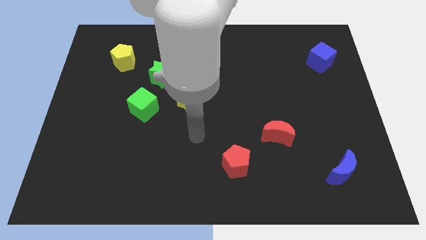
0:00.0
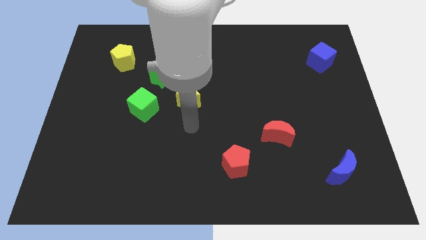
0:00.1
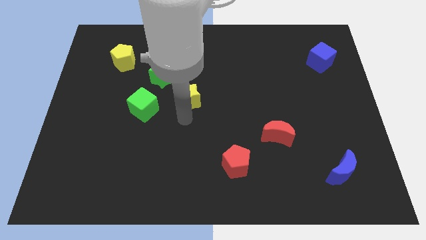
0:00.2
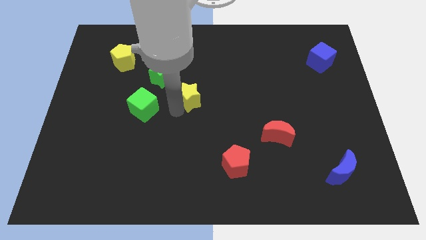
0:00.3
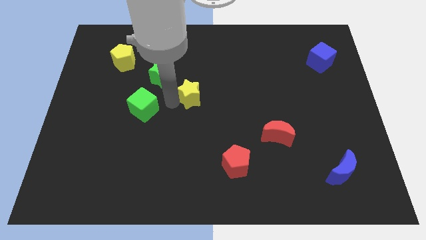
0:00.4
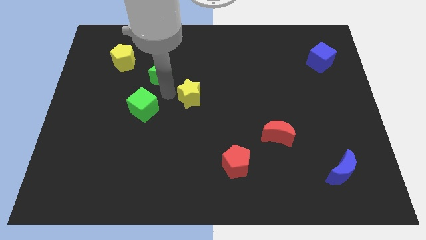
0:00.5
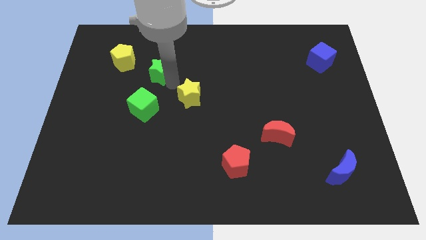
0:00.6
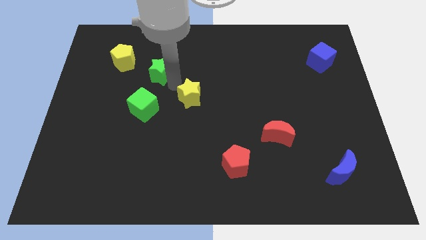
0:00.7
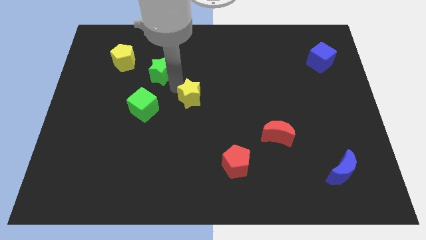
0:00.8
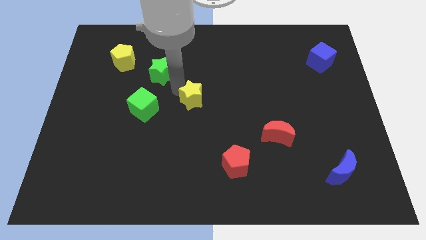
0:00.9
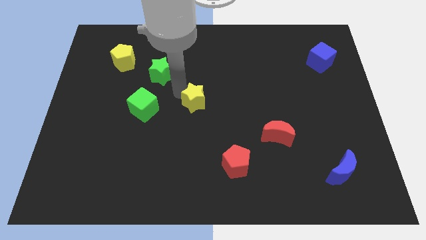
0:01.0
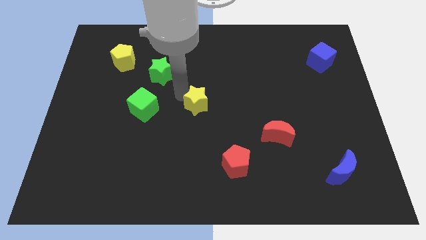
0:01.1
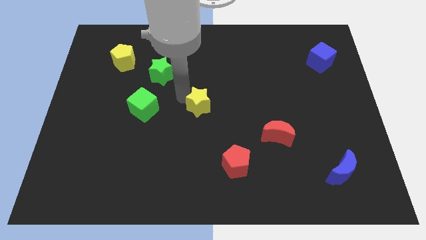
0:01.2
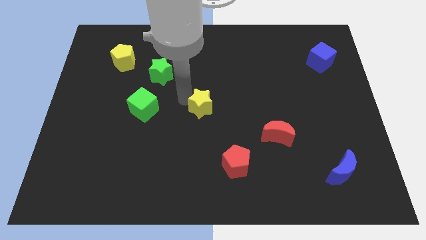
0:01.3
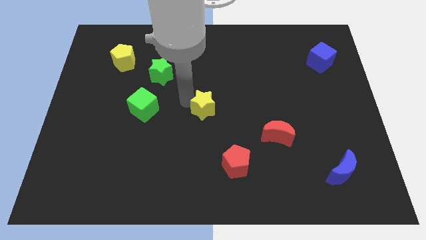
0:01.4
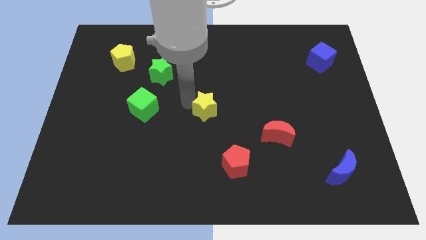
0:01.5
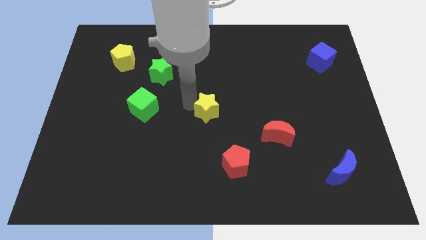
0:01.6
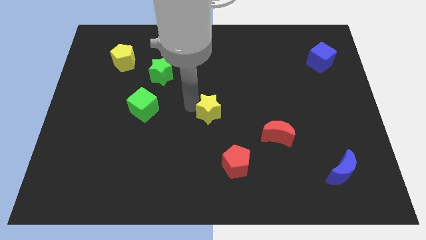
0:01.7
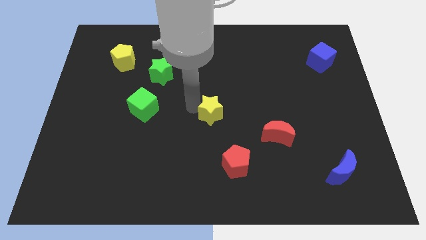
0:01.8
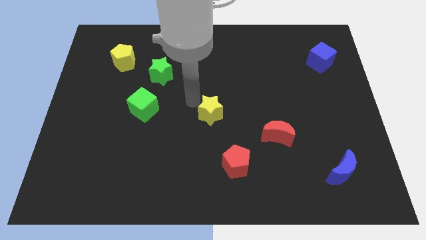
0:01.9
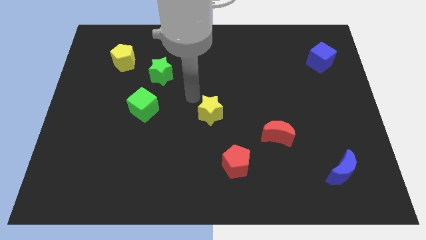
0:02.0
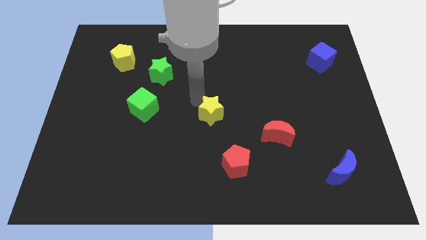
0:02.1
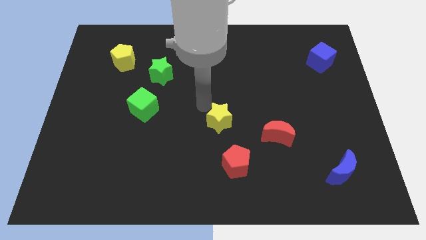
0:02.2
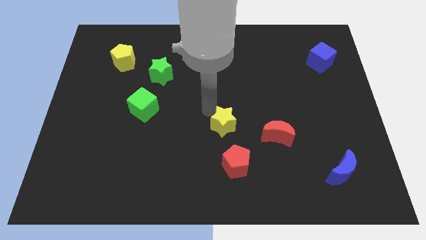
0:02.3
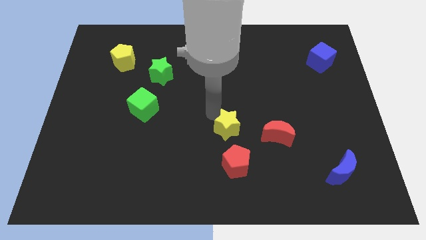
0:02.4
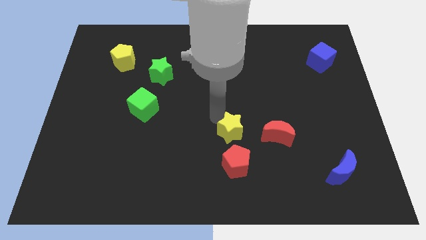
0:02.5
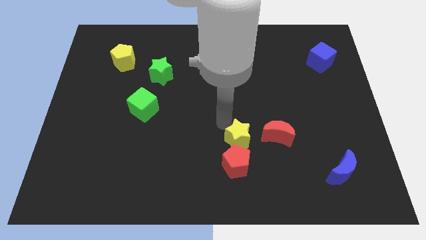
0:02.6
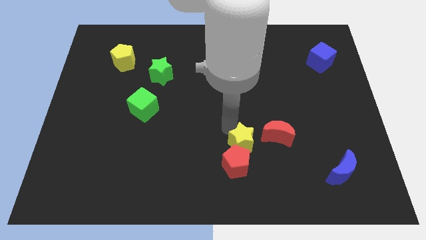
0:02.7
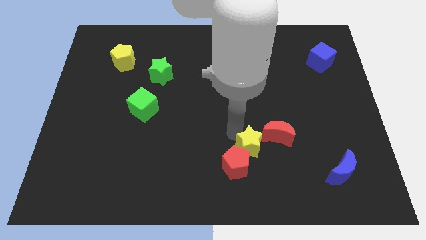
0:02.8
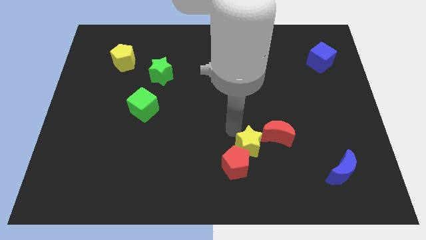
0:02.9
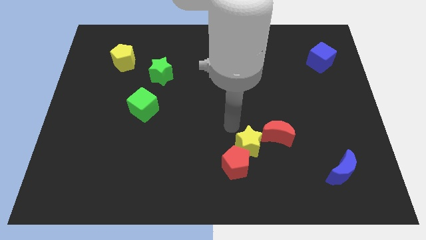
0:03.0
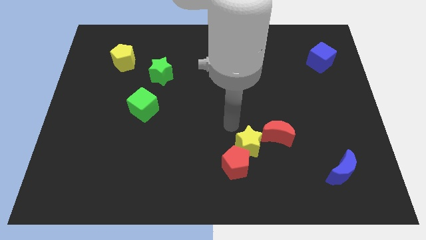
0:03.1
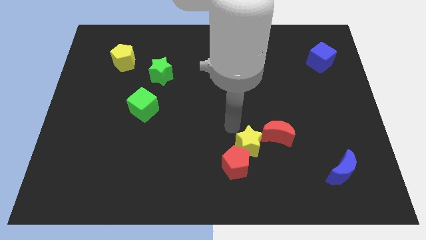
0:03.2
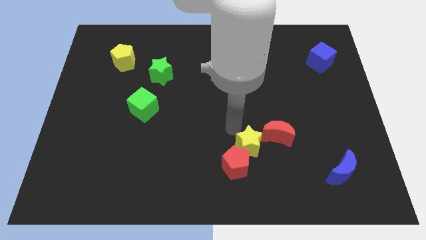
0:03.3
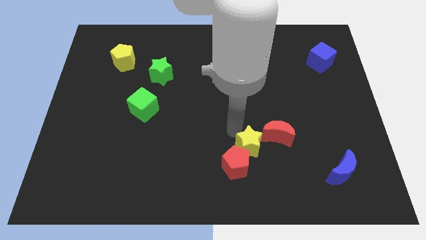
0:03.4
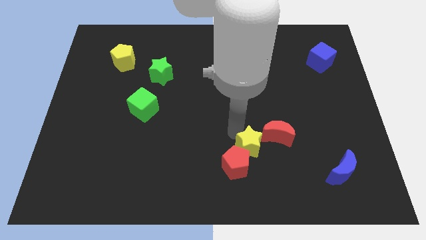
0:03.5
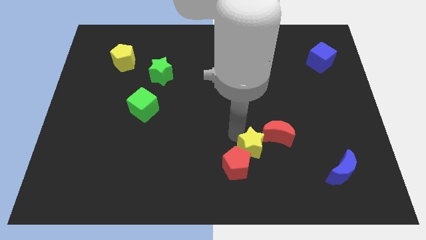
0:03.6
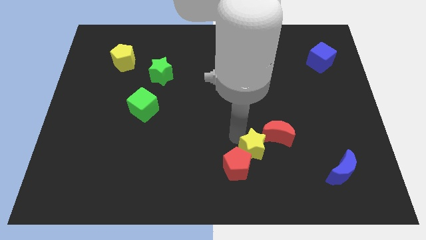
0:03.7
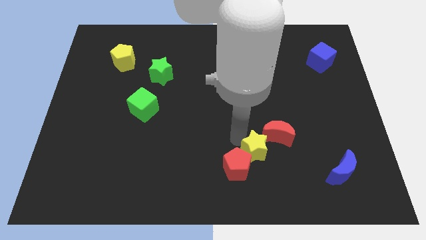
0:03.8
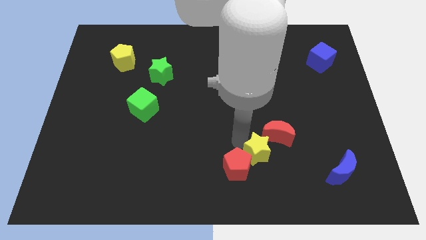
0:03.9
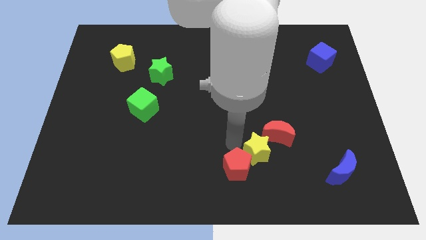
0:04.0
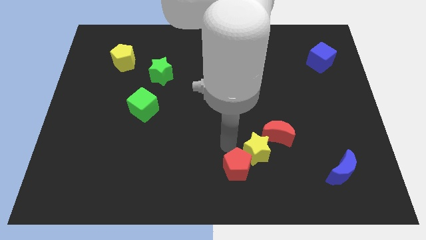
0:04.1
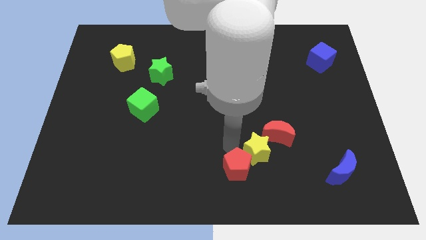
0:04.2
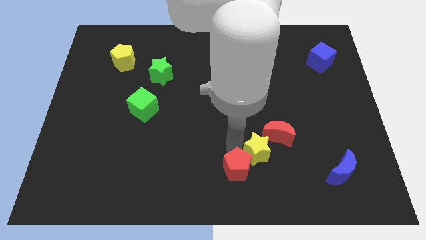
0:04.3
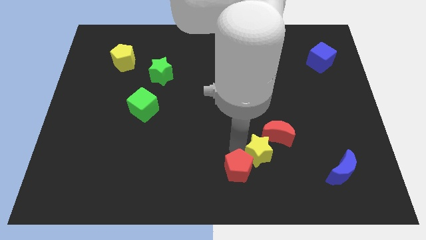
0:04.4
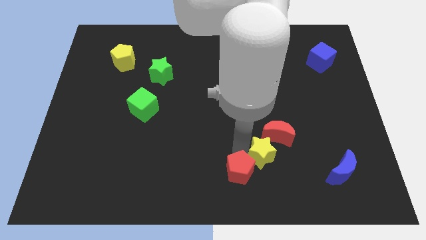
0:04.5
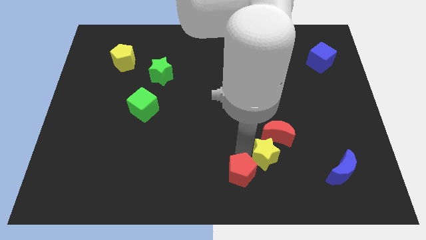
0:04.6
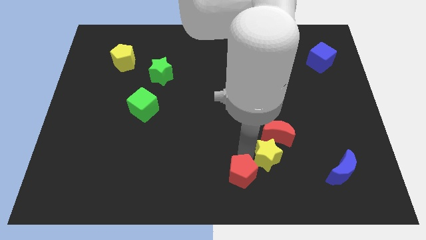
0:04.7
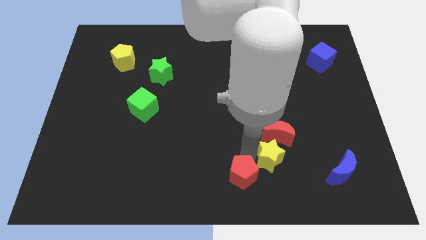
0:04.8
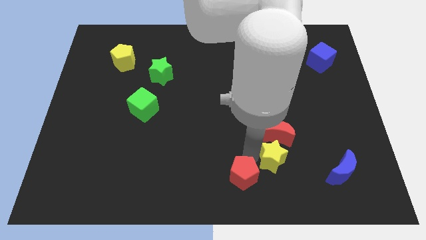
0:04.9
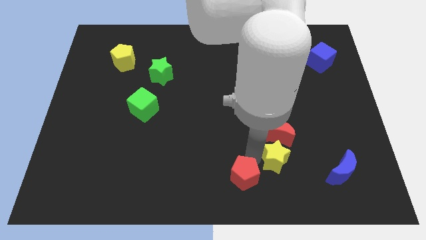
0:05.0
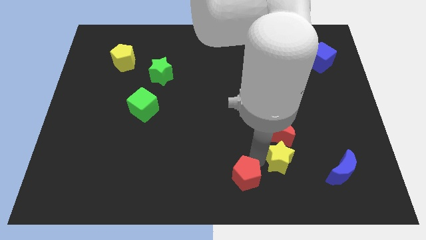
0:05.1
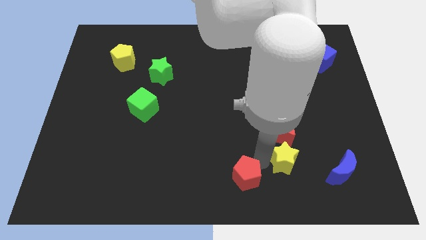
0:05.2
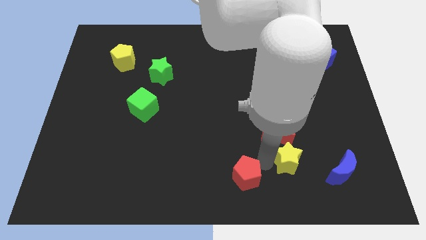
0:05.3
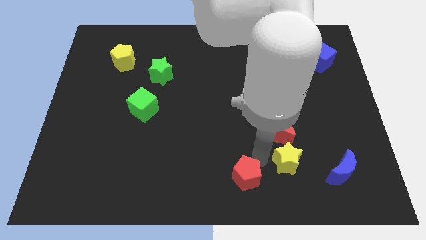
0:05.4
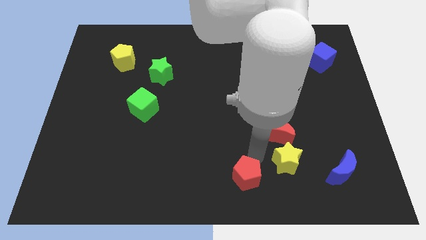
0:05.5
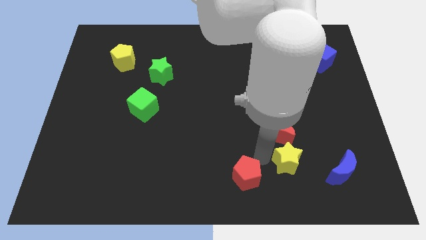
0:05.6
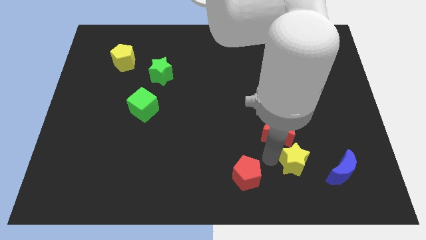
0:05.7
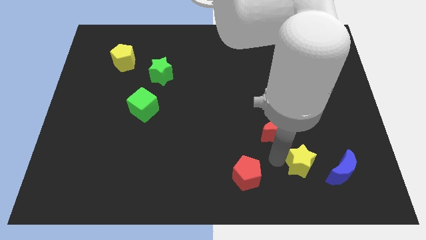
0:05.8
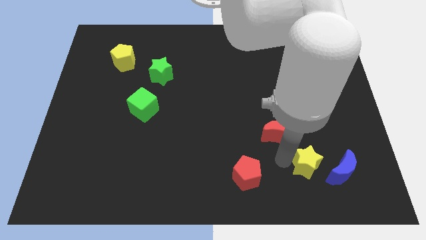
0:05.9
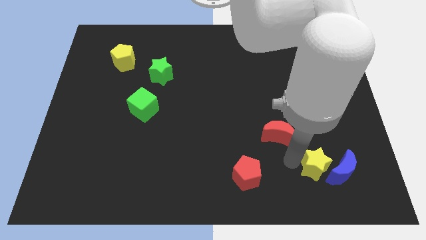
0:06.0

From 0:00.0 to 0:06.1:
put the yellow star close to the blue moon

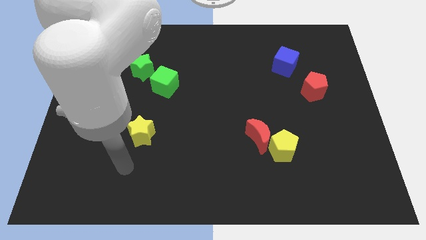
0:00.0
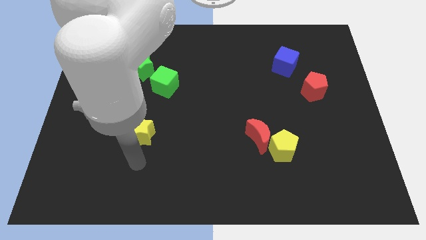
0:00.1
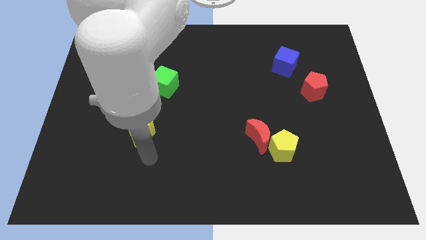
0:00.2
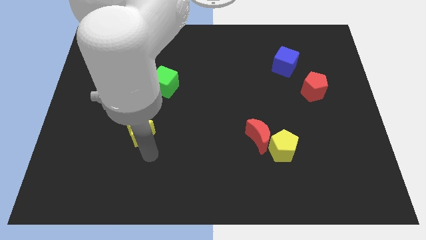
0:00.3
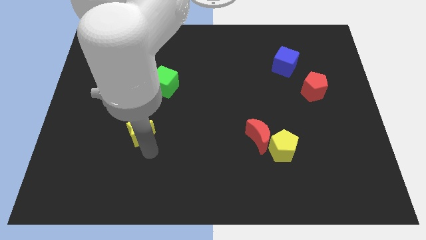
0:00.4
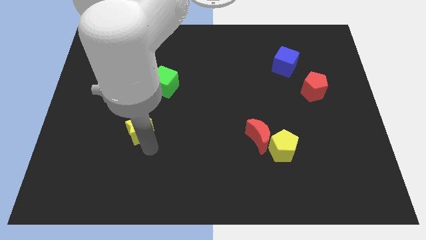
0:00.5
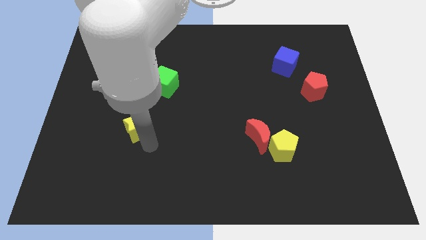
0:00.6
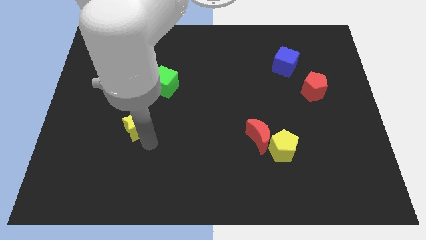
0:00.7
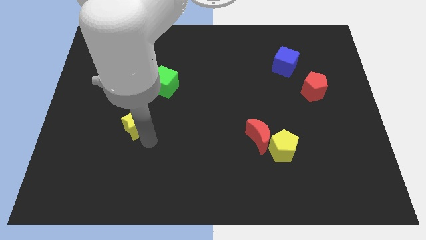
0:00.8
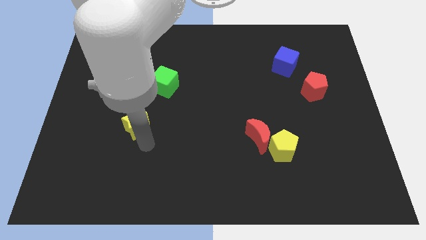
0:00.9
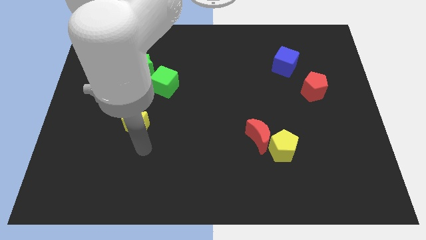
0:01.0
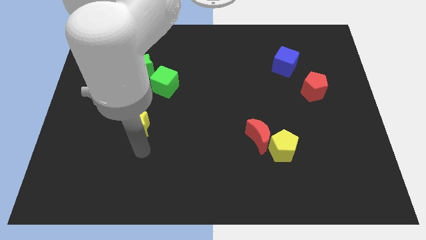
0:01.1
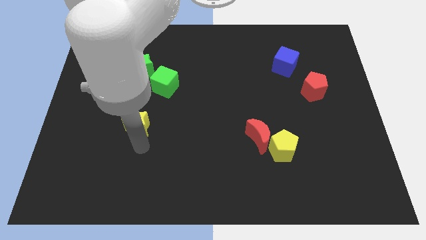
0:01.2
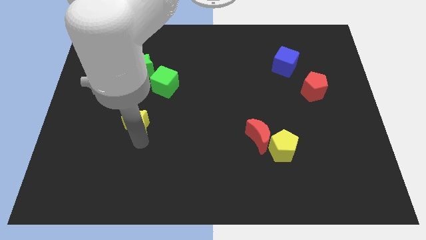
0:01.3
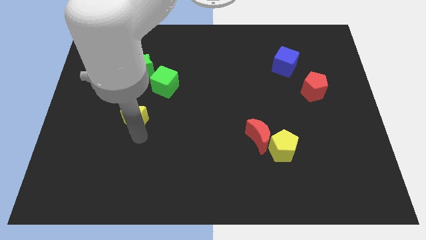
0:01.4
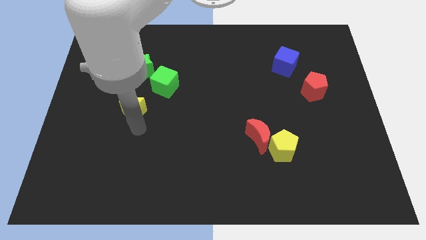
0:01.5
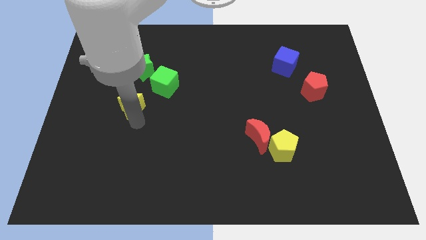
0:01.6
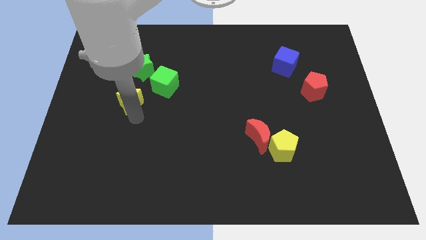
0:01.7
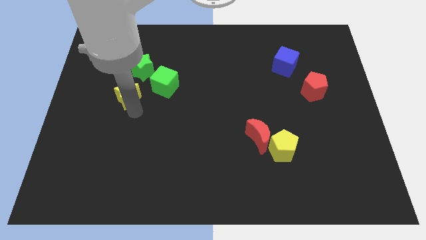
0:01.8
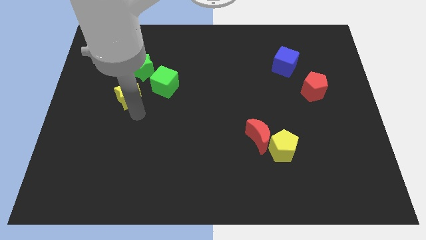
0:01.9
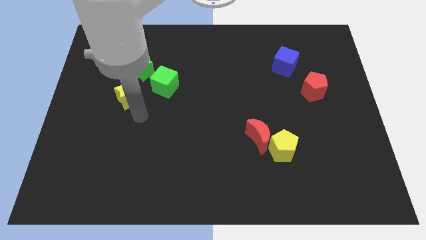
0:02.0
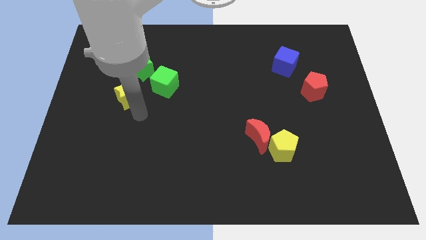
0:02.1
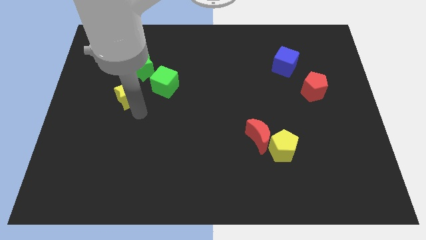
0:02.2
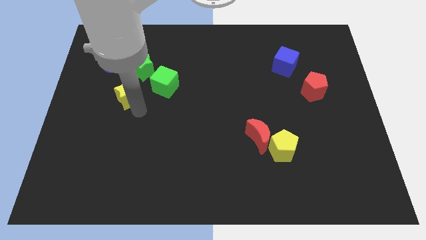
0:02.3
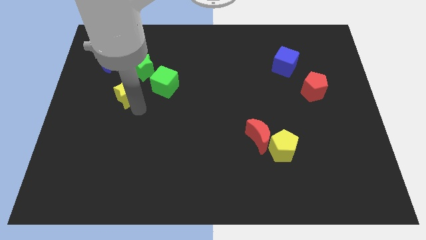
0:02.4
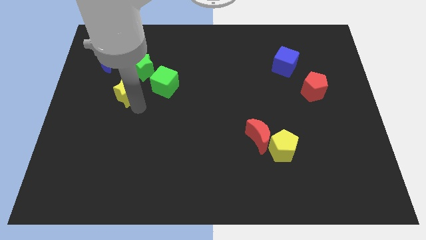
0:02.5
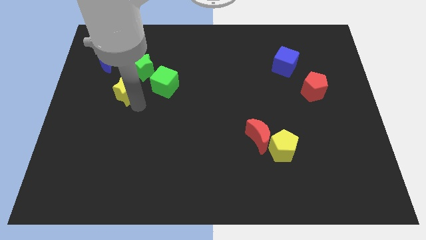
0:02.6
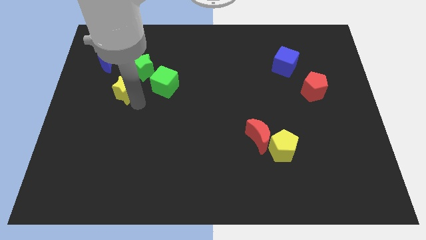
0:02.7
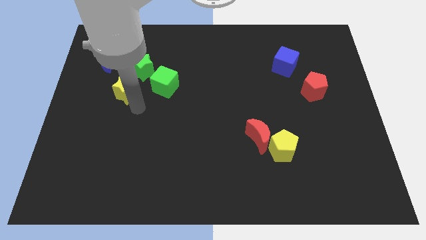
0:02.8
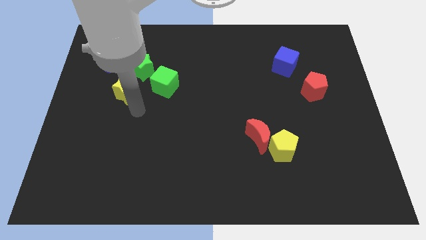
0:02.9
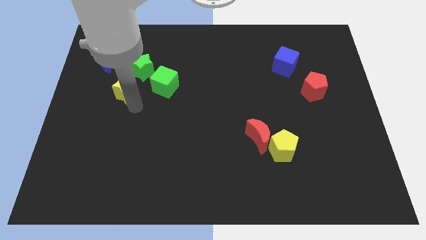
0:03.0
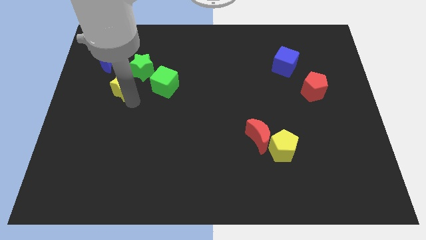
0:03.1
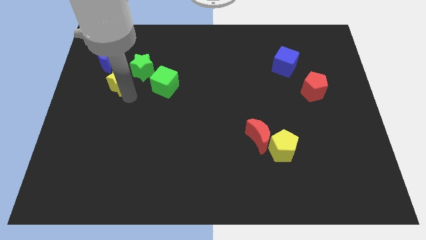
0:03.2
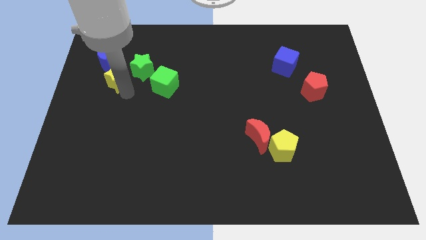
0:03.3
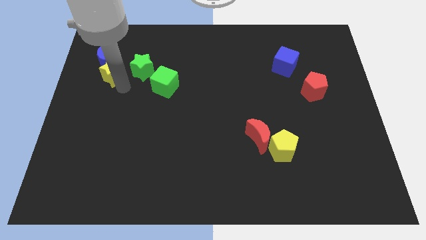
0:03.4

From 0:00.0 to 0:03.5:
put the yellow star towards the blue moon
